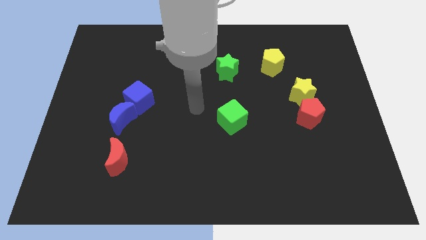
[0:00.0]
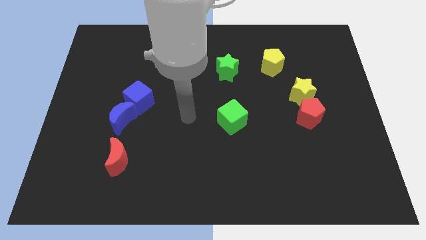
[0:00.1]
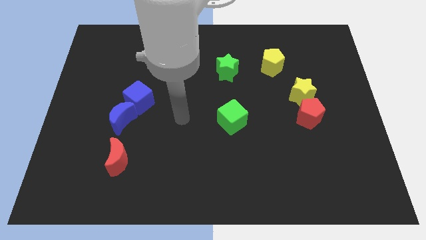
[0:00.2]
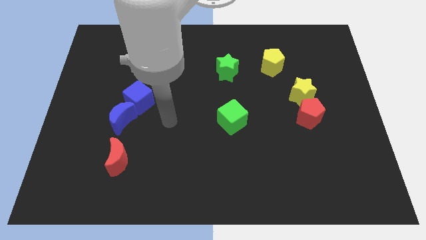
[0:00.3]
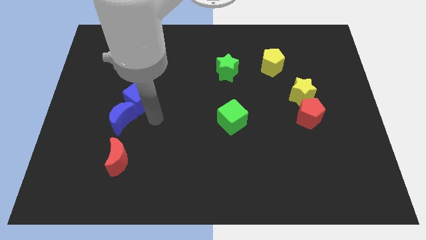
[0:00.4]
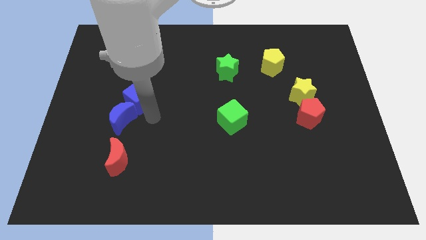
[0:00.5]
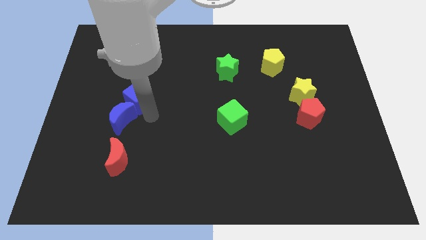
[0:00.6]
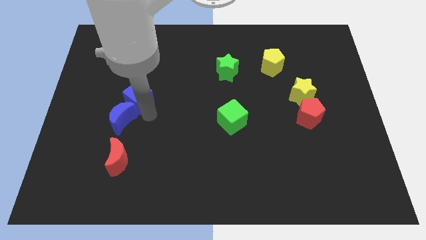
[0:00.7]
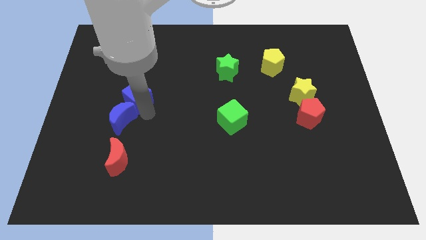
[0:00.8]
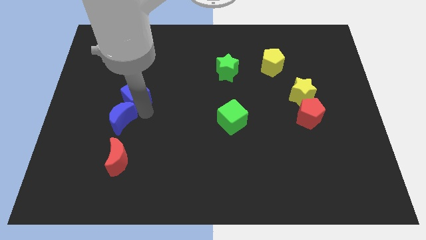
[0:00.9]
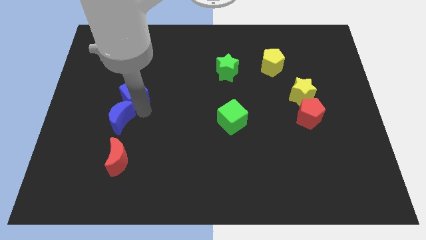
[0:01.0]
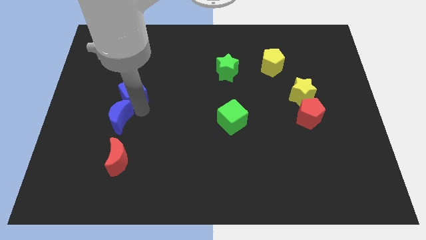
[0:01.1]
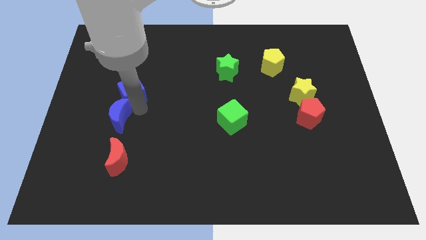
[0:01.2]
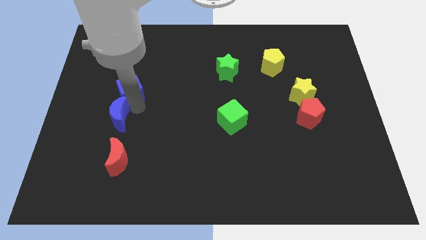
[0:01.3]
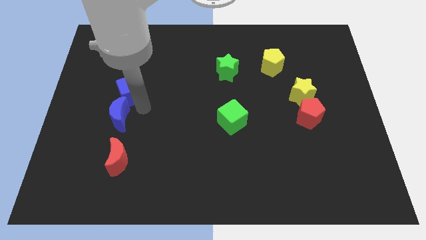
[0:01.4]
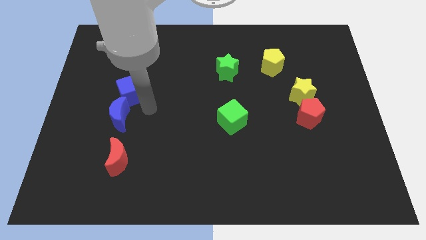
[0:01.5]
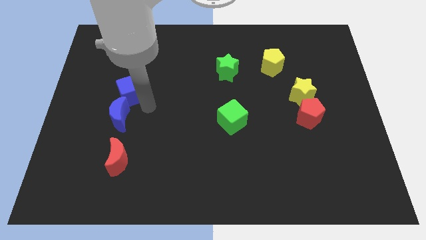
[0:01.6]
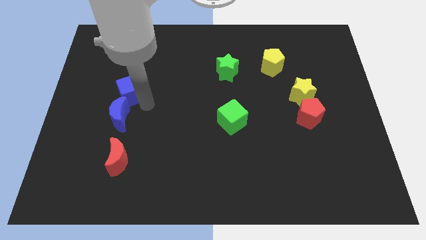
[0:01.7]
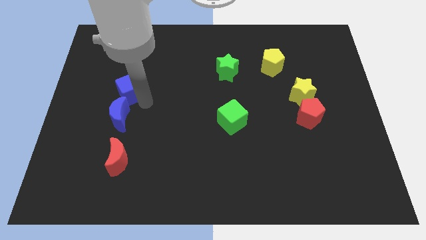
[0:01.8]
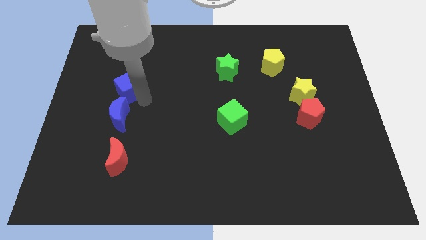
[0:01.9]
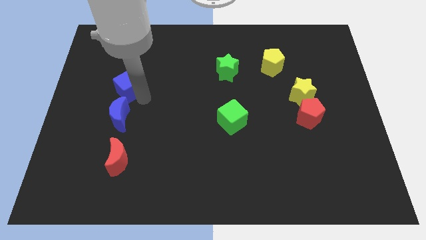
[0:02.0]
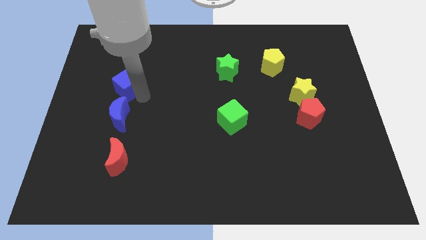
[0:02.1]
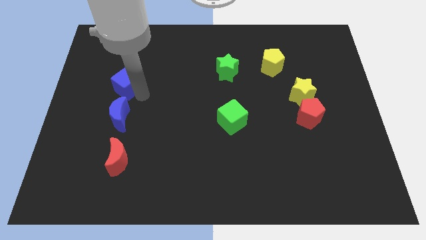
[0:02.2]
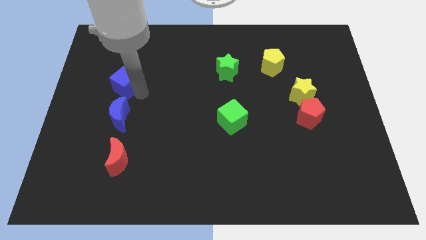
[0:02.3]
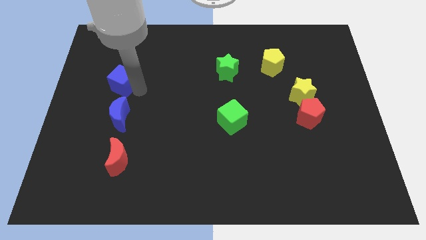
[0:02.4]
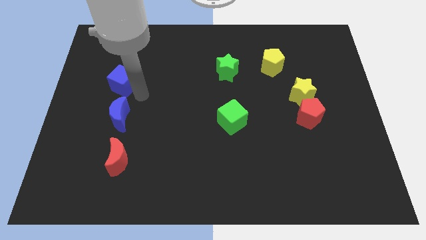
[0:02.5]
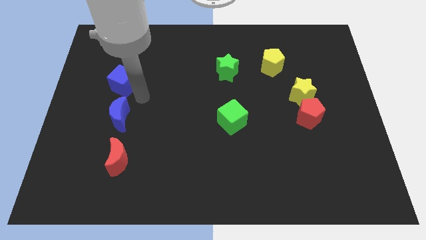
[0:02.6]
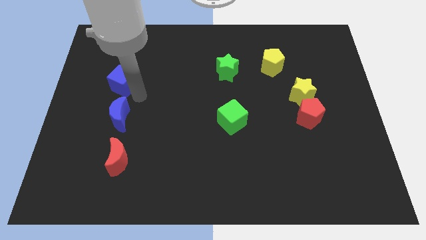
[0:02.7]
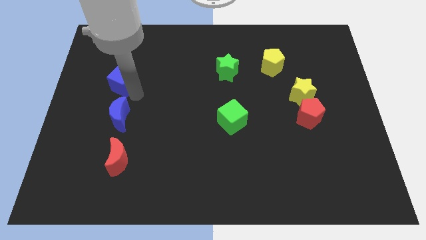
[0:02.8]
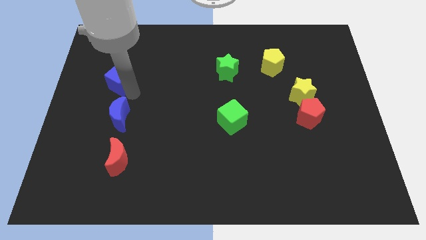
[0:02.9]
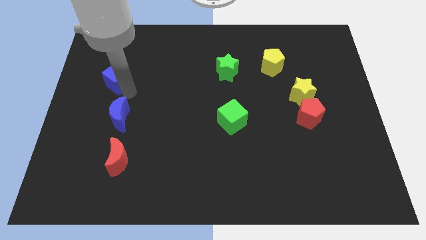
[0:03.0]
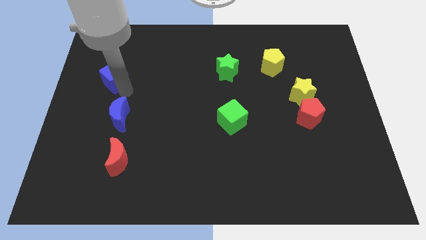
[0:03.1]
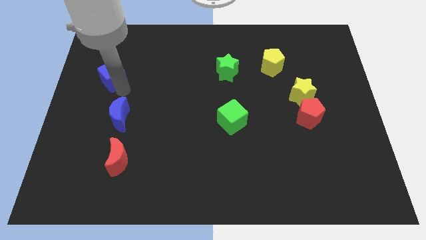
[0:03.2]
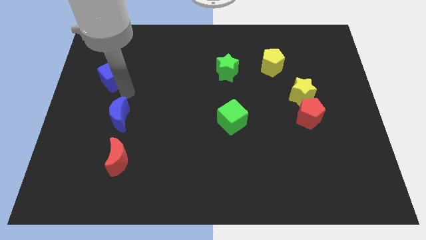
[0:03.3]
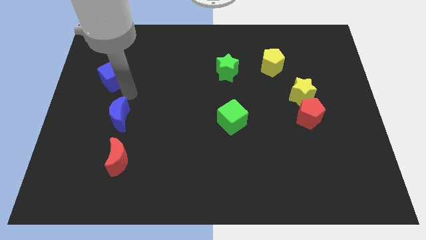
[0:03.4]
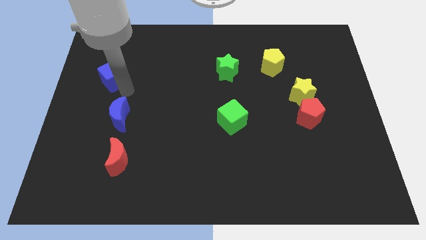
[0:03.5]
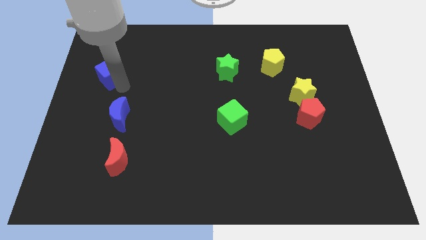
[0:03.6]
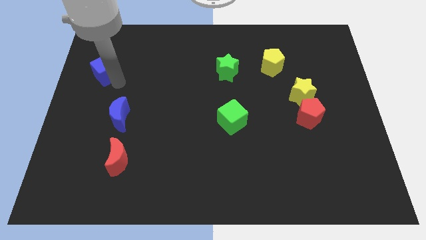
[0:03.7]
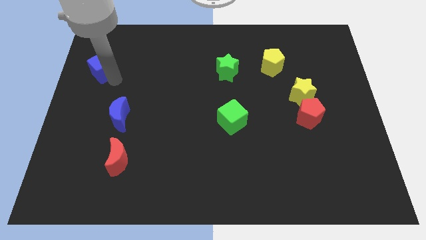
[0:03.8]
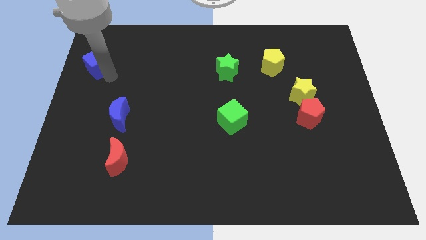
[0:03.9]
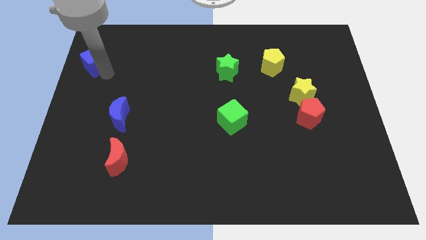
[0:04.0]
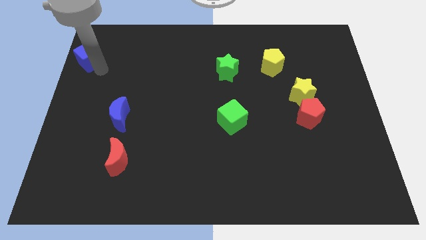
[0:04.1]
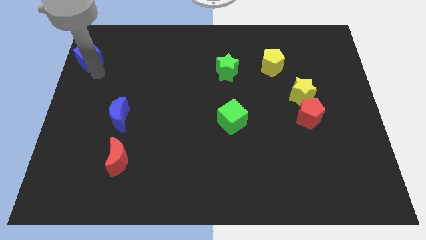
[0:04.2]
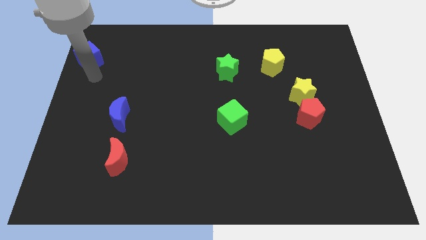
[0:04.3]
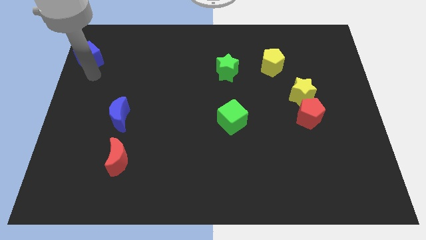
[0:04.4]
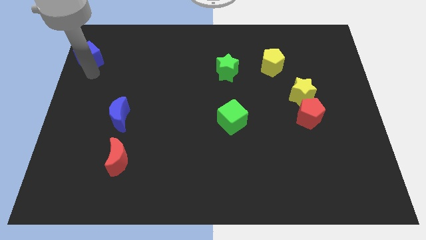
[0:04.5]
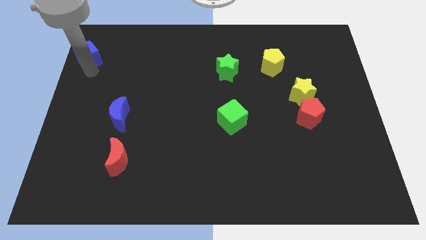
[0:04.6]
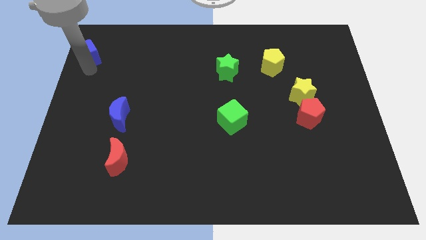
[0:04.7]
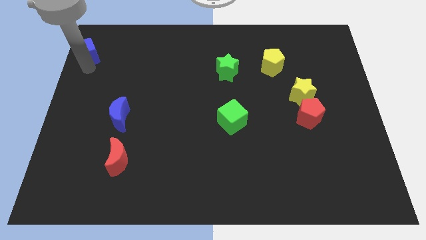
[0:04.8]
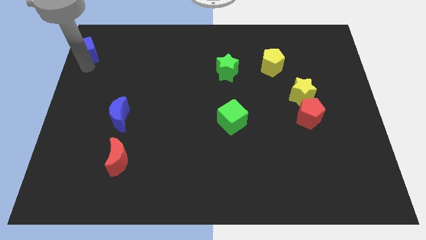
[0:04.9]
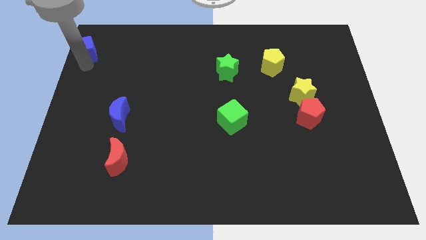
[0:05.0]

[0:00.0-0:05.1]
put the blue cube to the top left of the board

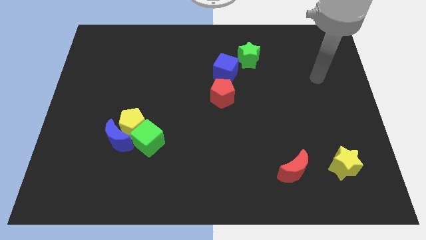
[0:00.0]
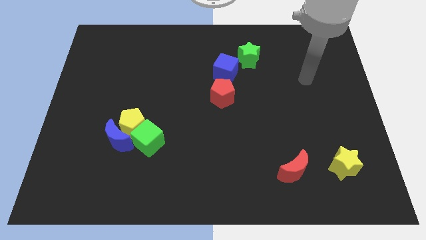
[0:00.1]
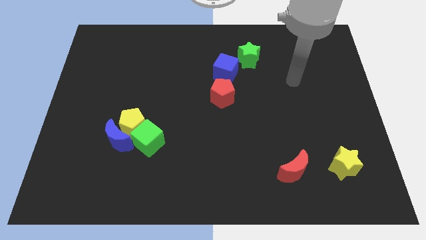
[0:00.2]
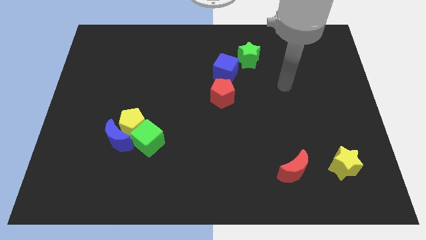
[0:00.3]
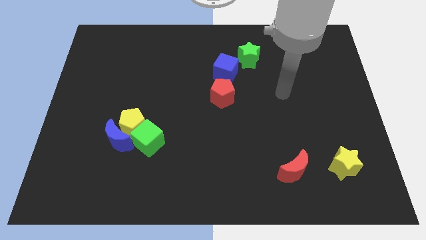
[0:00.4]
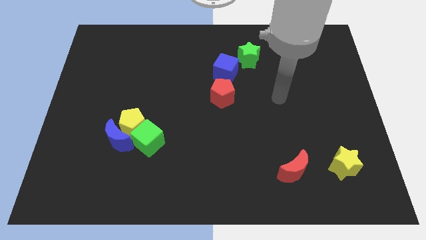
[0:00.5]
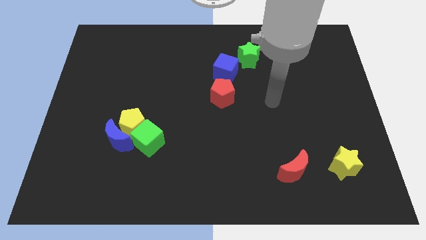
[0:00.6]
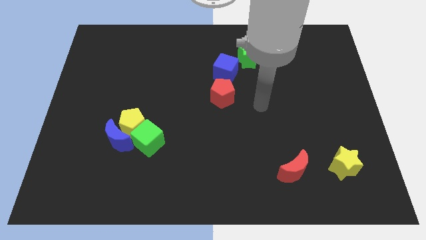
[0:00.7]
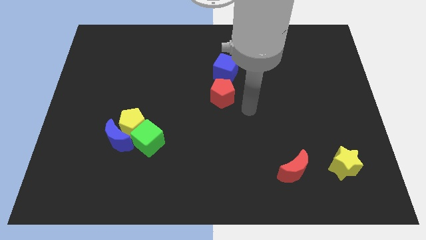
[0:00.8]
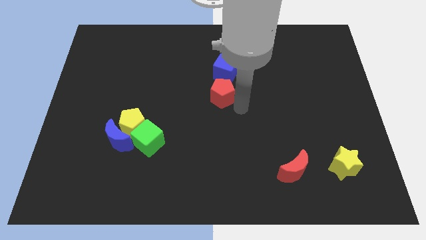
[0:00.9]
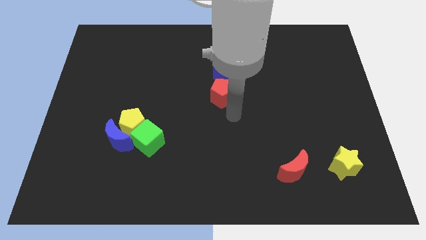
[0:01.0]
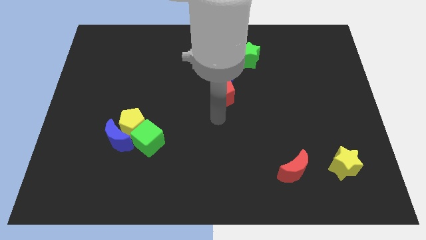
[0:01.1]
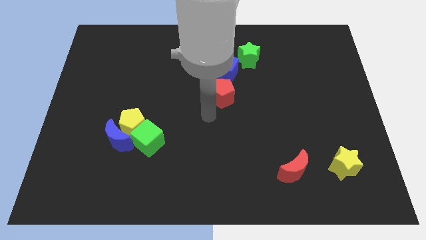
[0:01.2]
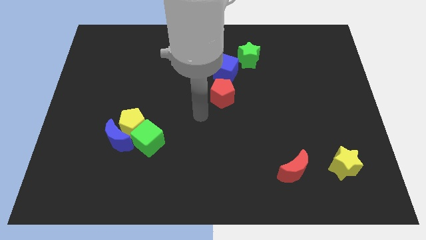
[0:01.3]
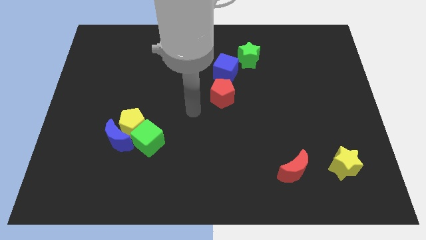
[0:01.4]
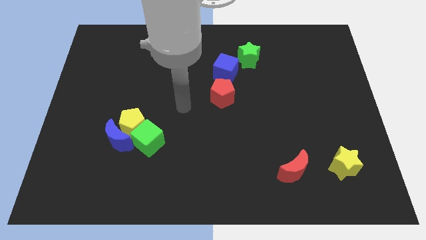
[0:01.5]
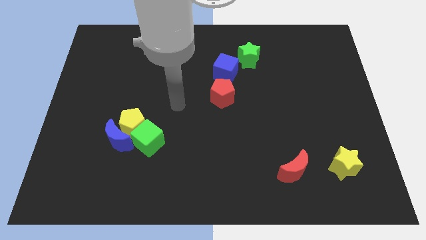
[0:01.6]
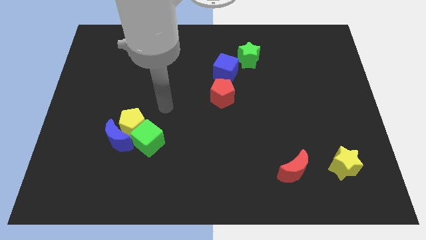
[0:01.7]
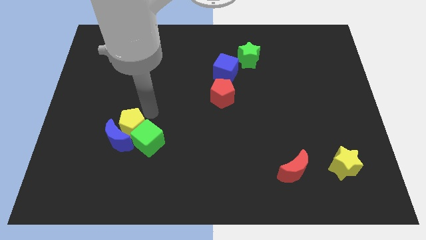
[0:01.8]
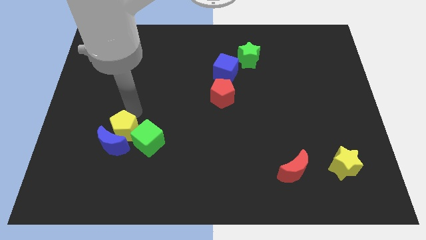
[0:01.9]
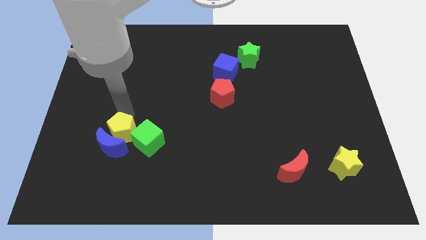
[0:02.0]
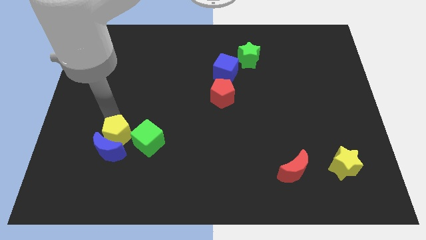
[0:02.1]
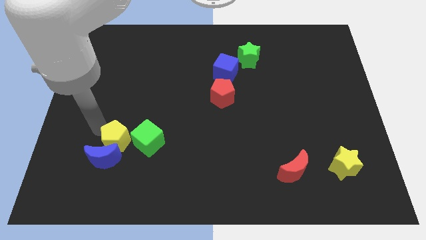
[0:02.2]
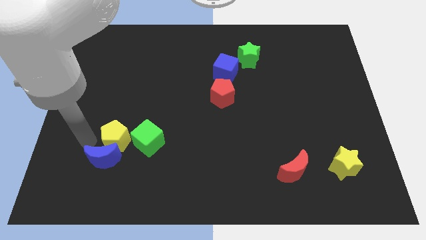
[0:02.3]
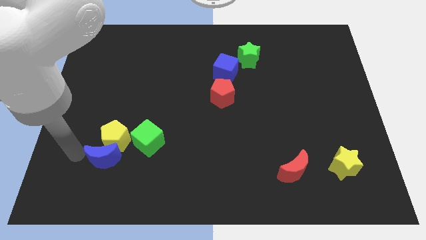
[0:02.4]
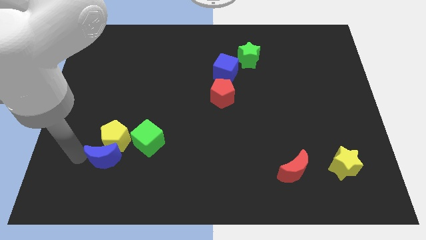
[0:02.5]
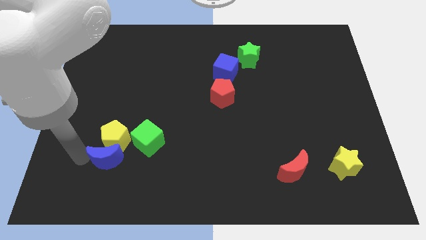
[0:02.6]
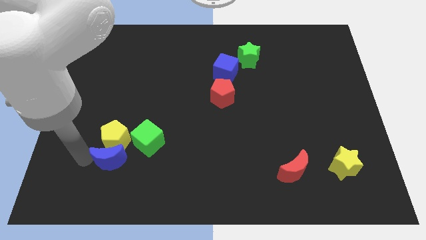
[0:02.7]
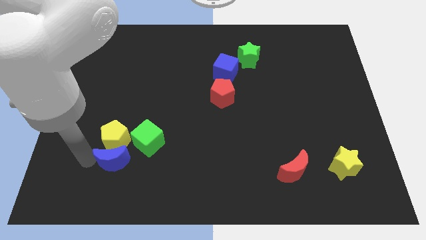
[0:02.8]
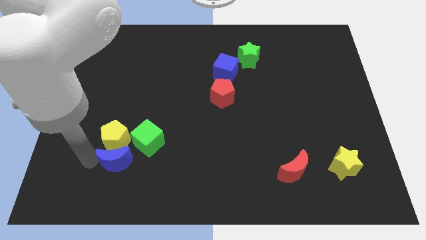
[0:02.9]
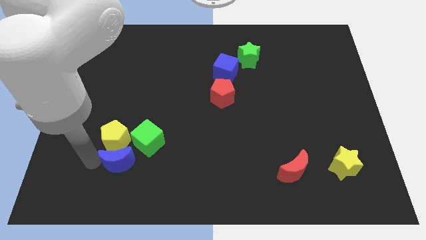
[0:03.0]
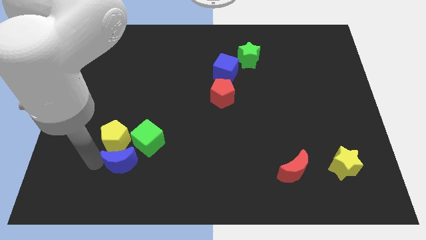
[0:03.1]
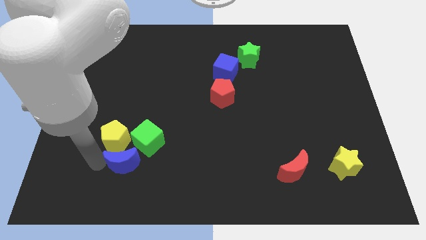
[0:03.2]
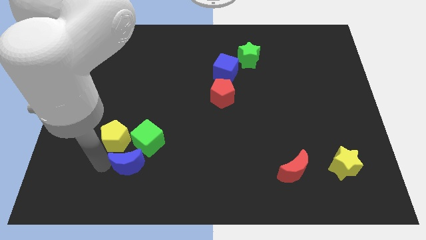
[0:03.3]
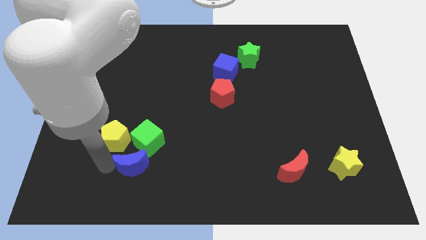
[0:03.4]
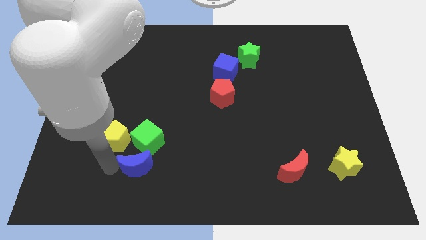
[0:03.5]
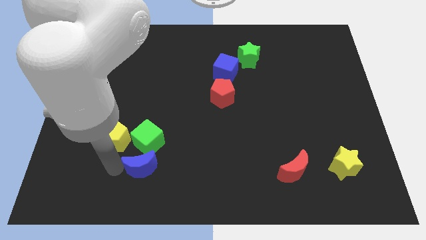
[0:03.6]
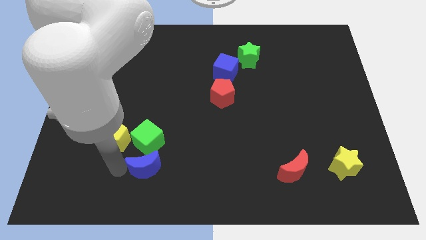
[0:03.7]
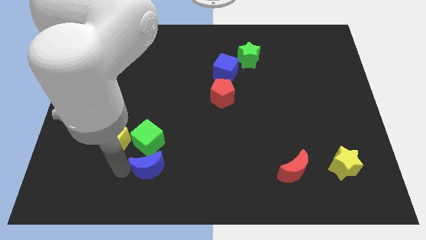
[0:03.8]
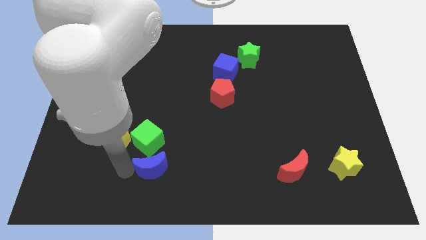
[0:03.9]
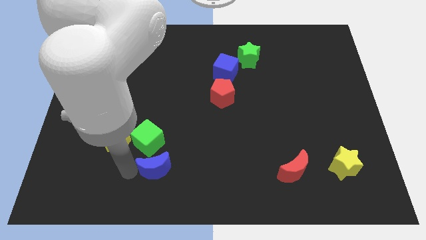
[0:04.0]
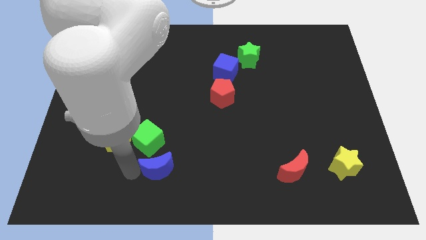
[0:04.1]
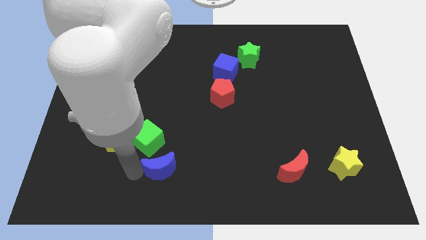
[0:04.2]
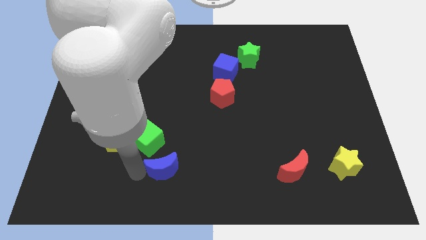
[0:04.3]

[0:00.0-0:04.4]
push the blue moon to the bottom
